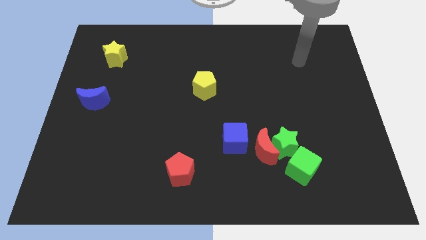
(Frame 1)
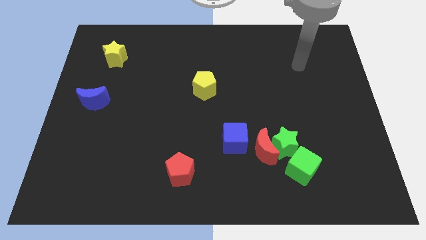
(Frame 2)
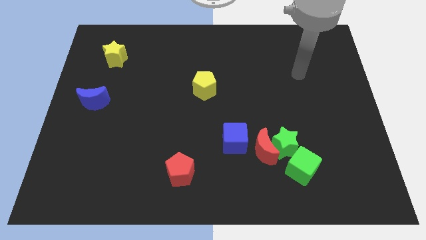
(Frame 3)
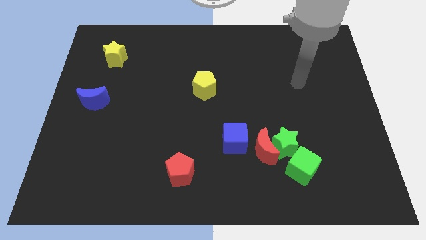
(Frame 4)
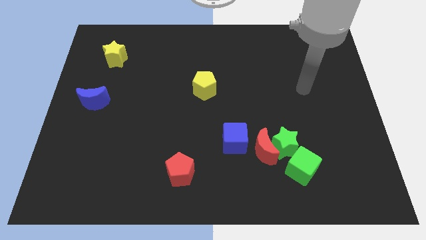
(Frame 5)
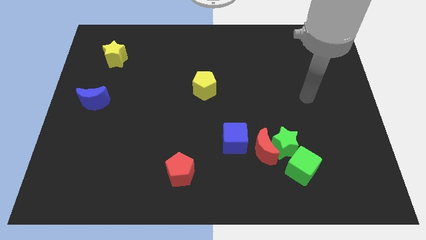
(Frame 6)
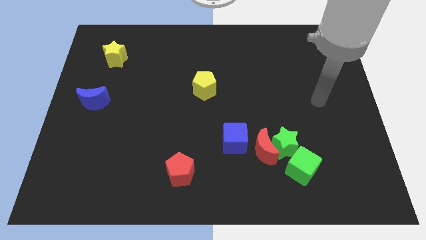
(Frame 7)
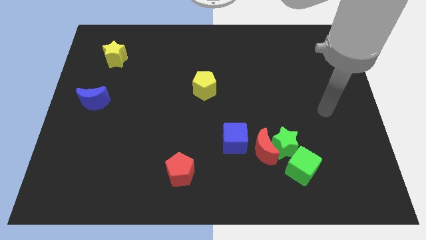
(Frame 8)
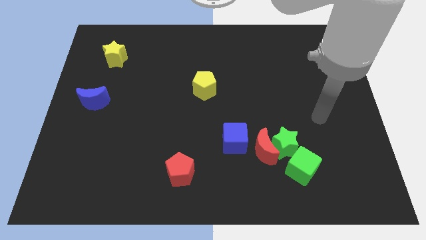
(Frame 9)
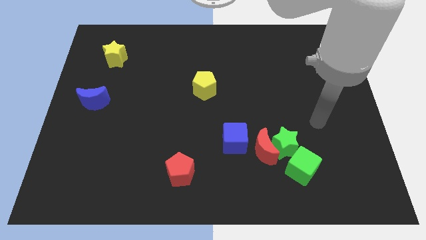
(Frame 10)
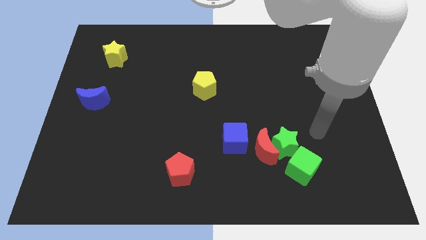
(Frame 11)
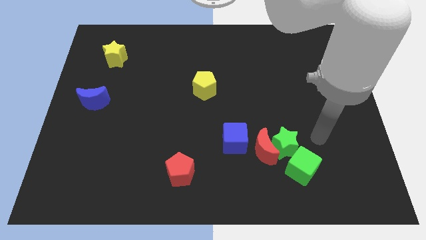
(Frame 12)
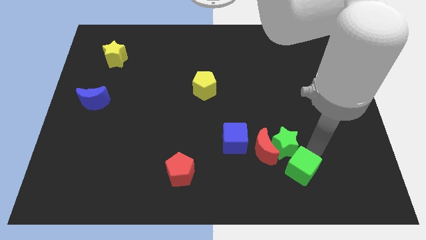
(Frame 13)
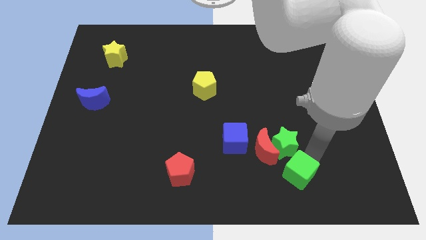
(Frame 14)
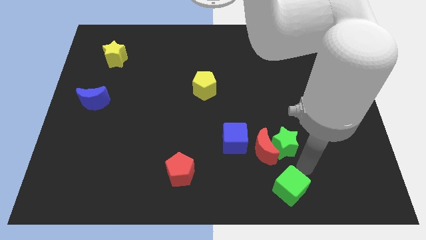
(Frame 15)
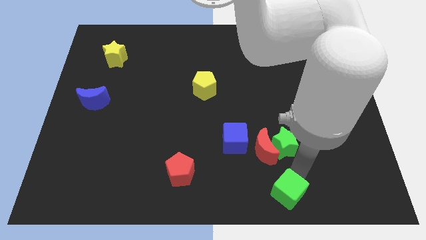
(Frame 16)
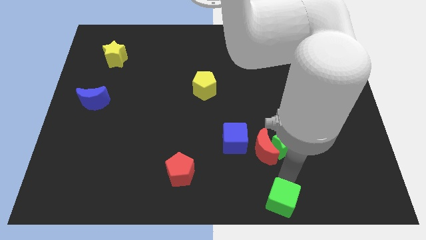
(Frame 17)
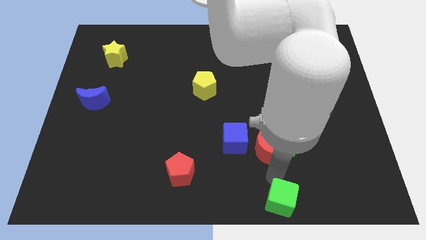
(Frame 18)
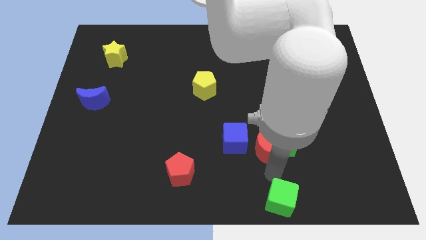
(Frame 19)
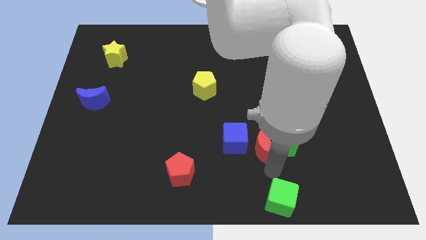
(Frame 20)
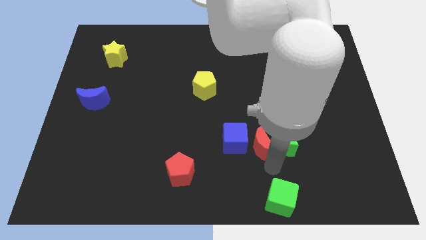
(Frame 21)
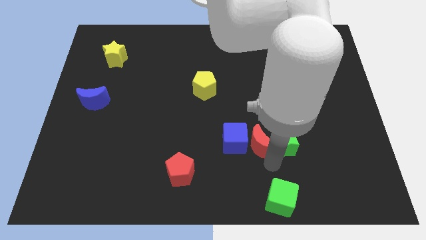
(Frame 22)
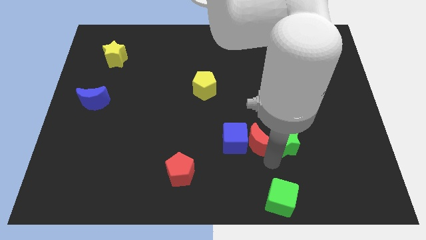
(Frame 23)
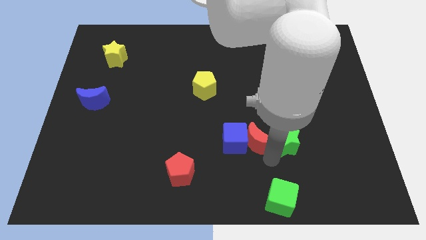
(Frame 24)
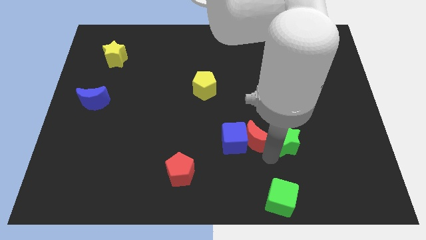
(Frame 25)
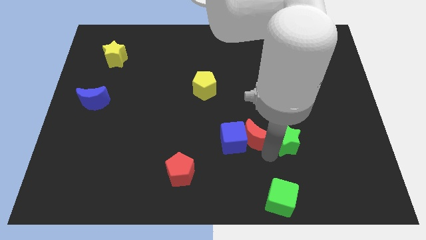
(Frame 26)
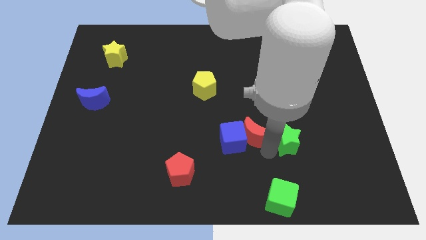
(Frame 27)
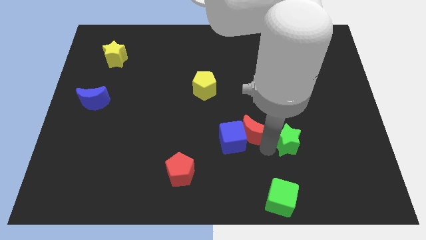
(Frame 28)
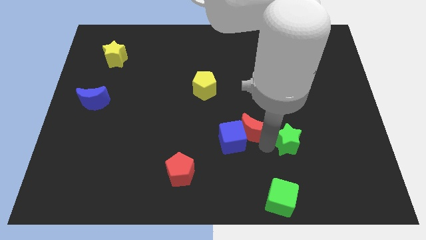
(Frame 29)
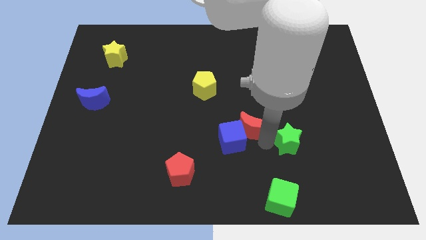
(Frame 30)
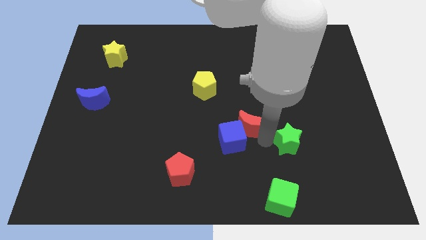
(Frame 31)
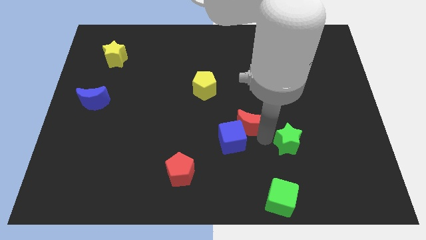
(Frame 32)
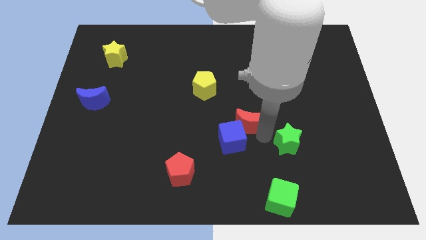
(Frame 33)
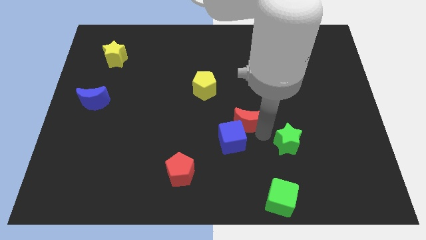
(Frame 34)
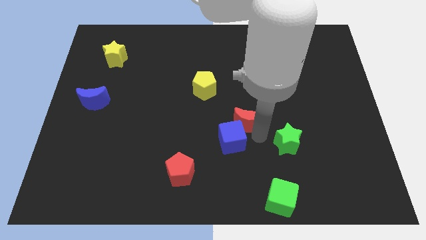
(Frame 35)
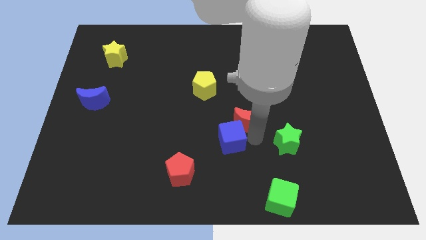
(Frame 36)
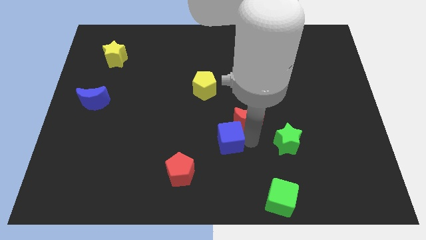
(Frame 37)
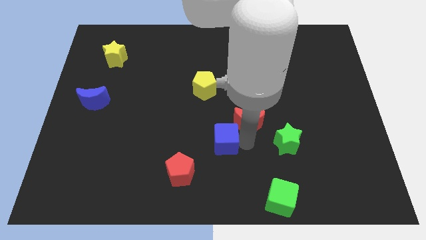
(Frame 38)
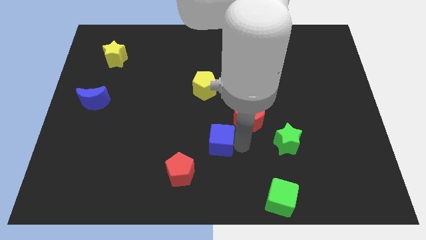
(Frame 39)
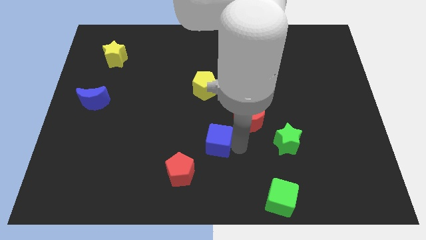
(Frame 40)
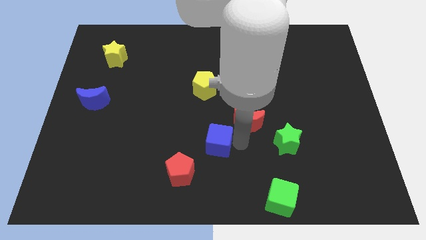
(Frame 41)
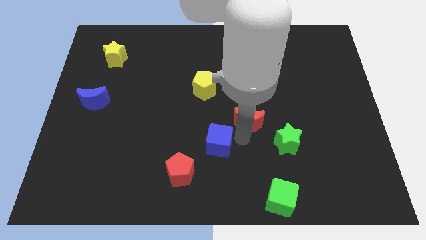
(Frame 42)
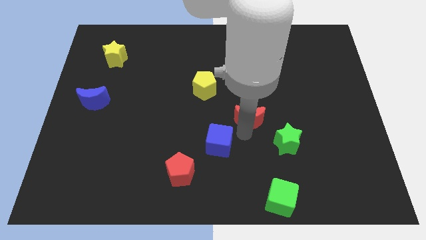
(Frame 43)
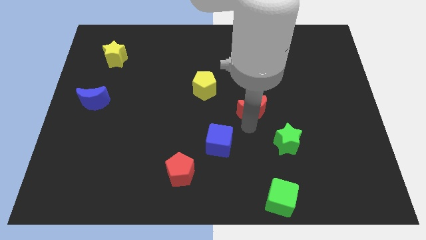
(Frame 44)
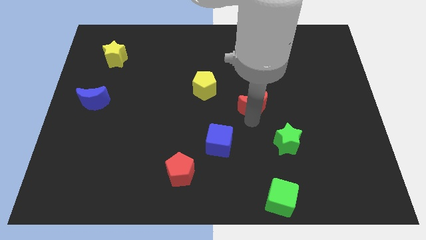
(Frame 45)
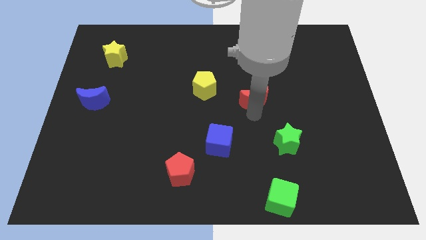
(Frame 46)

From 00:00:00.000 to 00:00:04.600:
put the red moon to the right side of the yellow pentagon

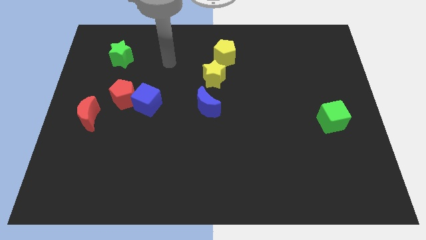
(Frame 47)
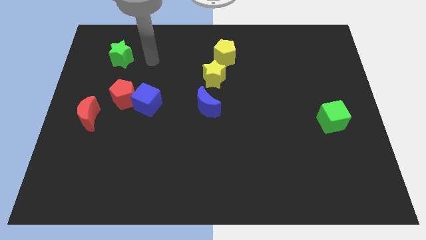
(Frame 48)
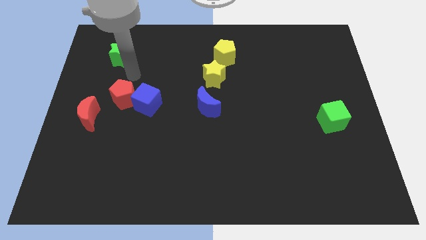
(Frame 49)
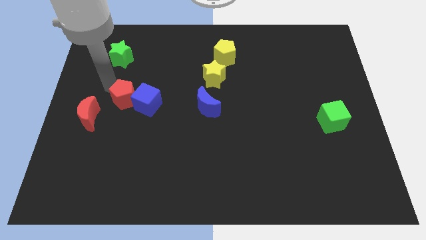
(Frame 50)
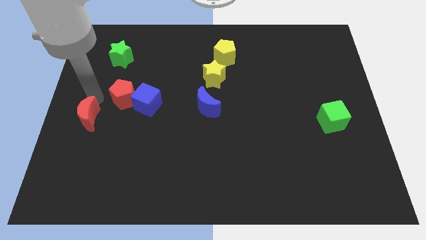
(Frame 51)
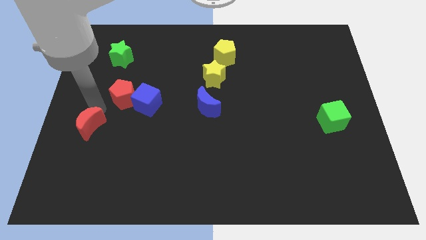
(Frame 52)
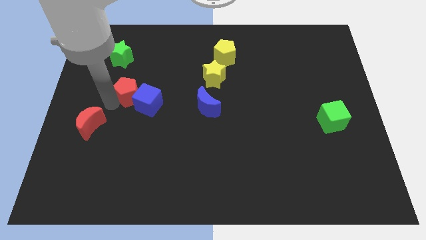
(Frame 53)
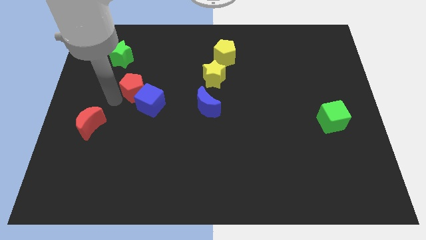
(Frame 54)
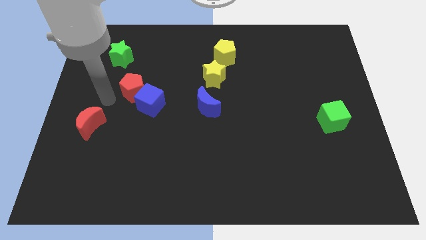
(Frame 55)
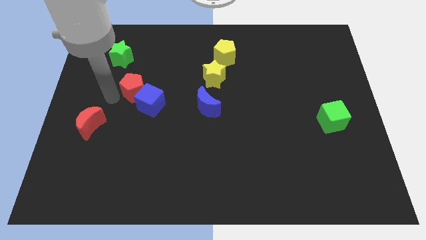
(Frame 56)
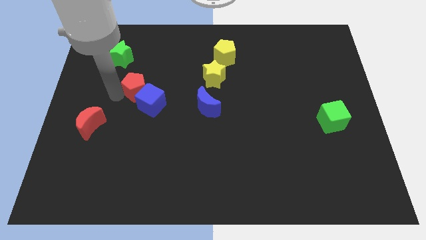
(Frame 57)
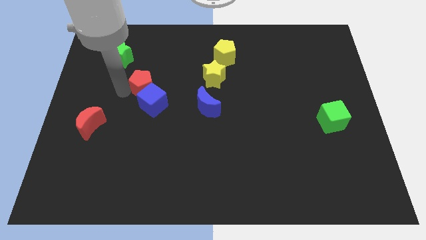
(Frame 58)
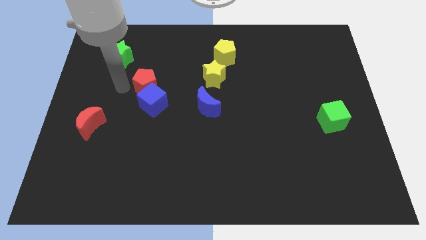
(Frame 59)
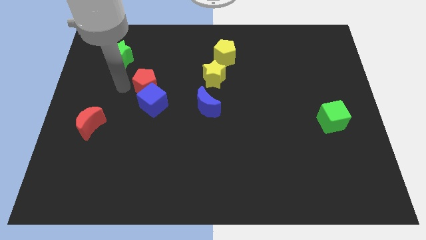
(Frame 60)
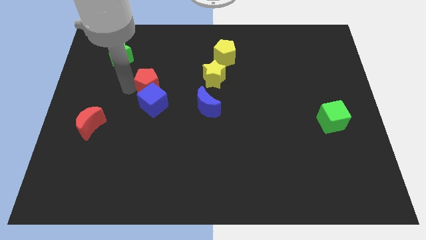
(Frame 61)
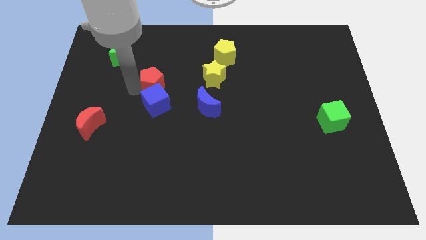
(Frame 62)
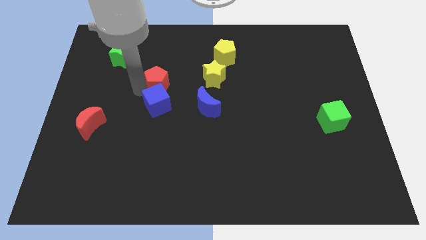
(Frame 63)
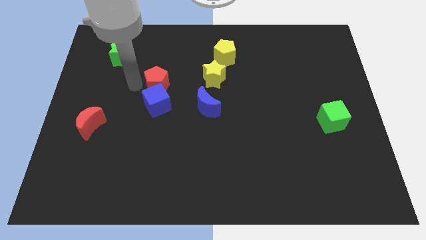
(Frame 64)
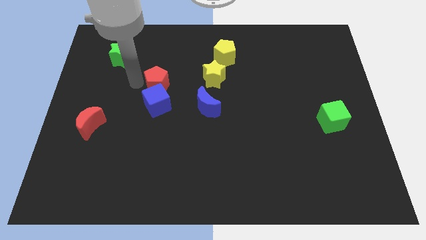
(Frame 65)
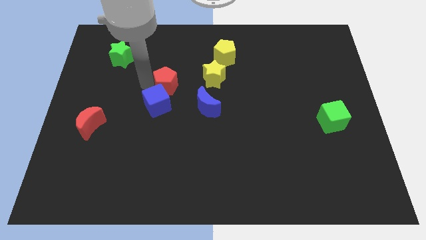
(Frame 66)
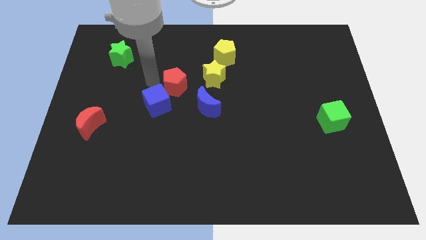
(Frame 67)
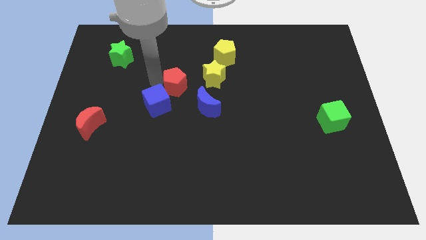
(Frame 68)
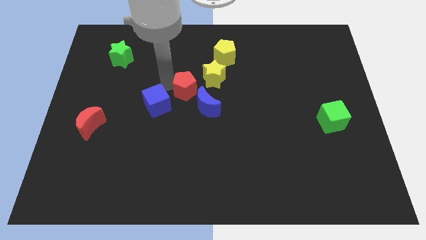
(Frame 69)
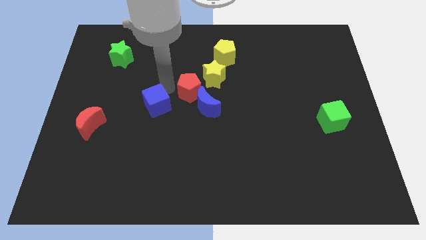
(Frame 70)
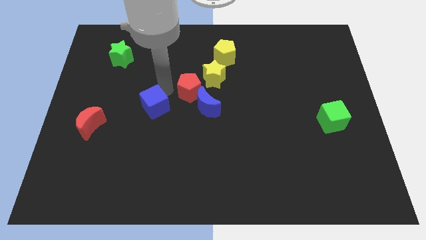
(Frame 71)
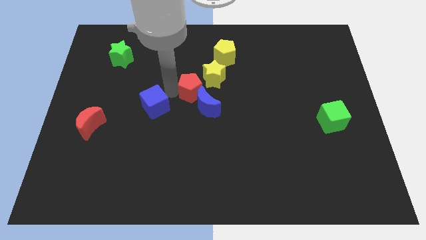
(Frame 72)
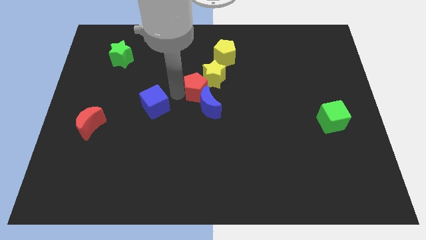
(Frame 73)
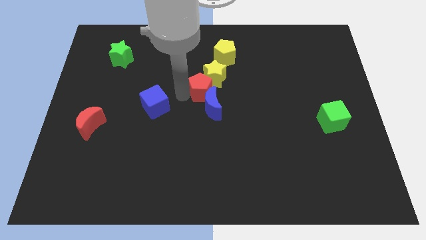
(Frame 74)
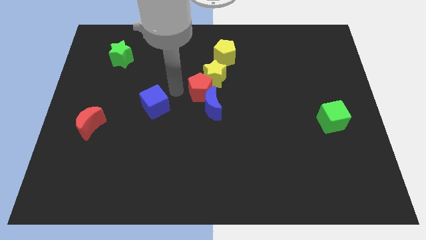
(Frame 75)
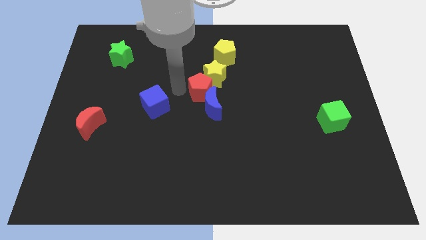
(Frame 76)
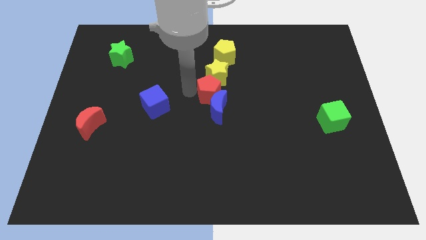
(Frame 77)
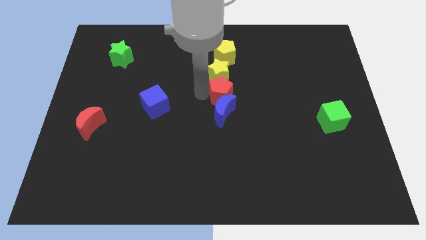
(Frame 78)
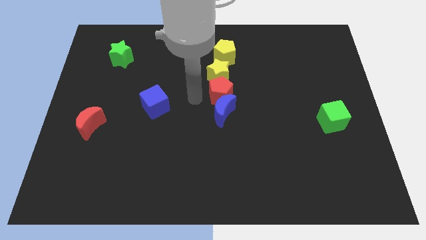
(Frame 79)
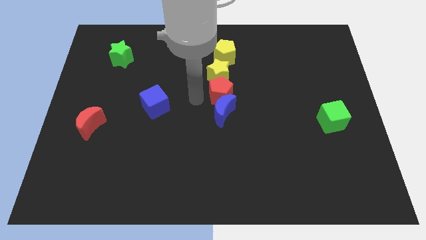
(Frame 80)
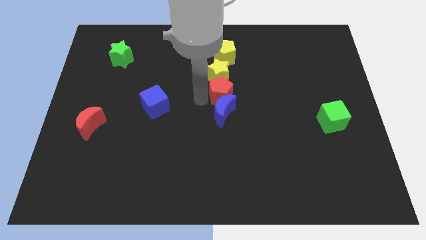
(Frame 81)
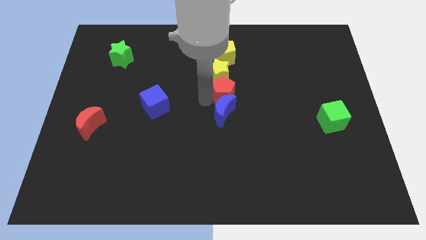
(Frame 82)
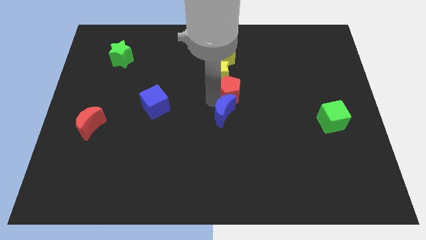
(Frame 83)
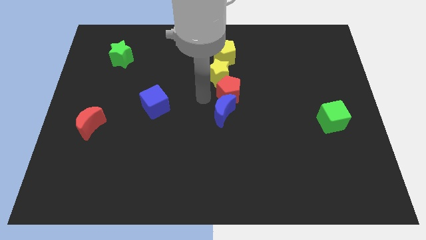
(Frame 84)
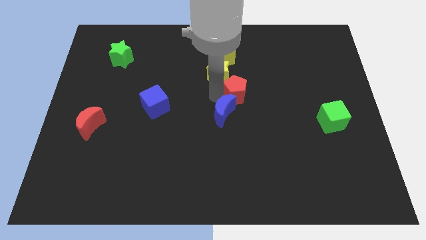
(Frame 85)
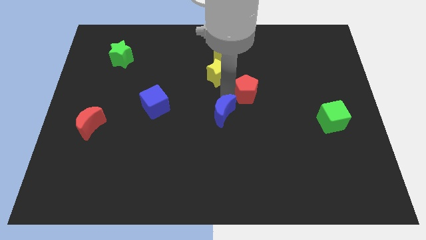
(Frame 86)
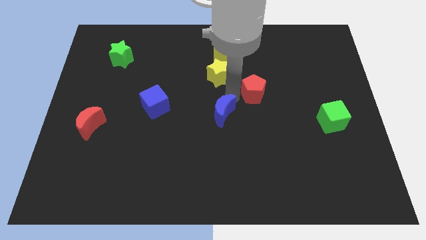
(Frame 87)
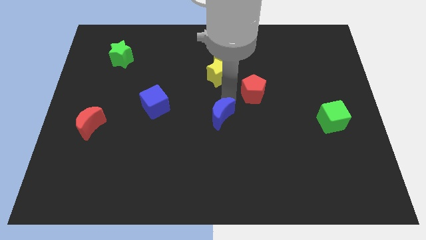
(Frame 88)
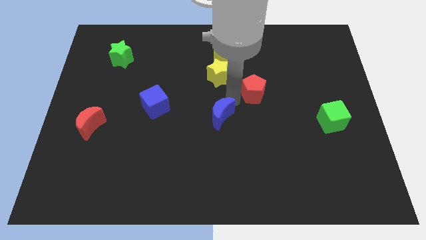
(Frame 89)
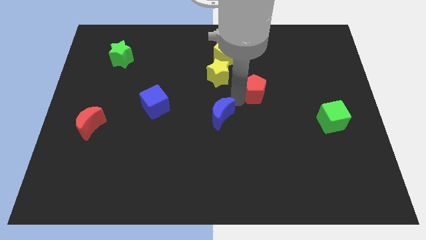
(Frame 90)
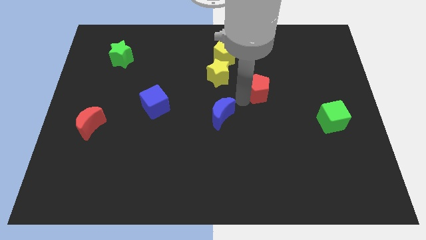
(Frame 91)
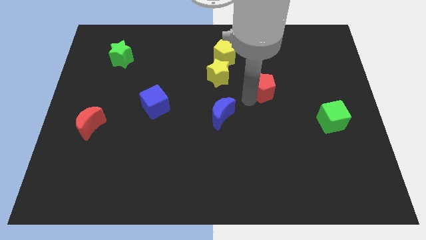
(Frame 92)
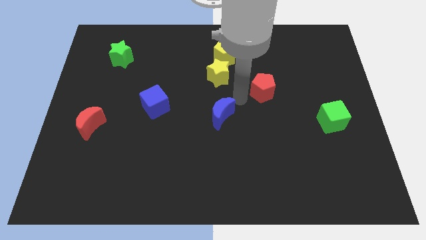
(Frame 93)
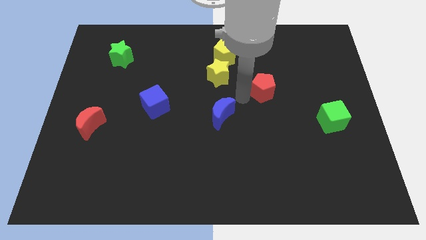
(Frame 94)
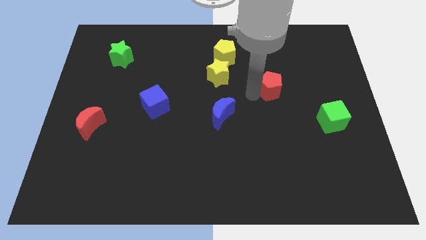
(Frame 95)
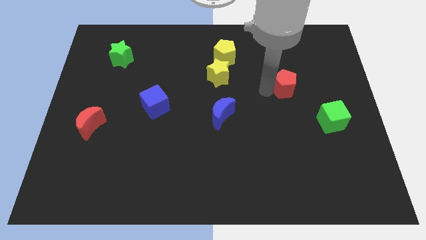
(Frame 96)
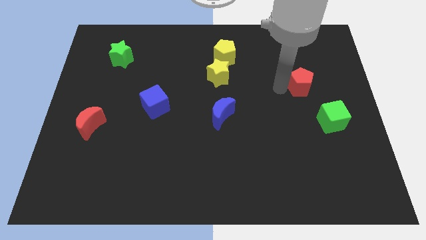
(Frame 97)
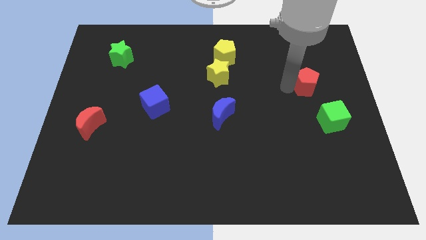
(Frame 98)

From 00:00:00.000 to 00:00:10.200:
put the red pentagon to the top side of the green cube
